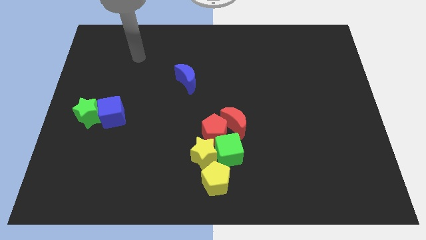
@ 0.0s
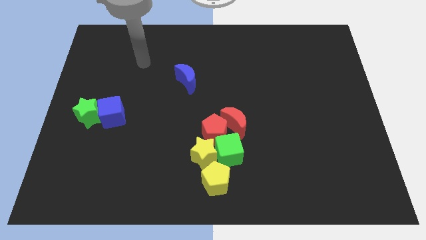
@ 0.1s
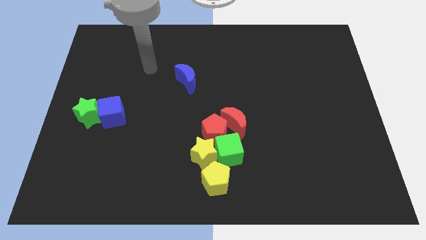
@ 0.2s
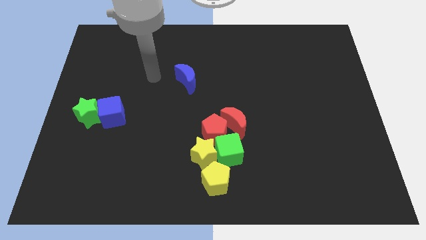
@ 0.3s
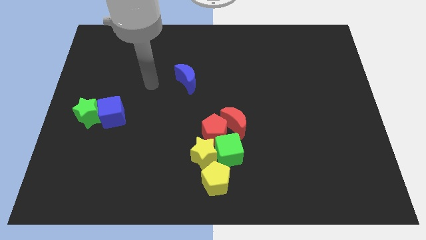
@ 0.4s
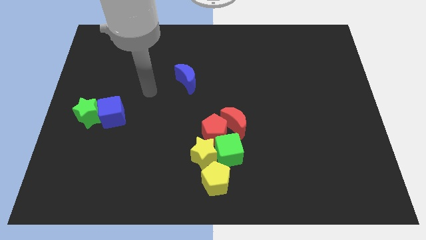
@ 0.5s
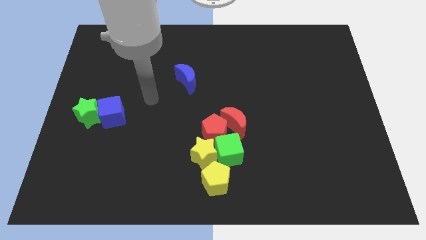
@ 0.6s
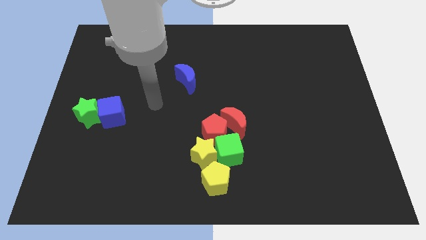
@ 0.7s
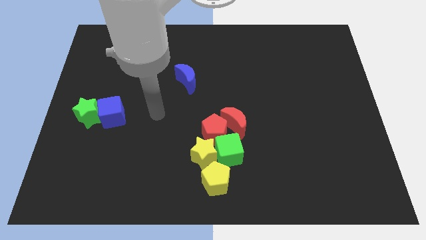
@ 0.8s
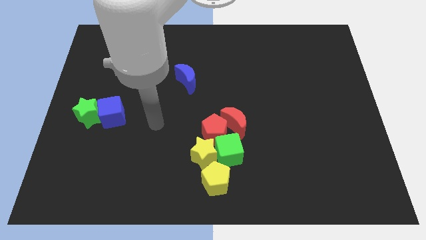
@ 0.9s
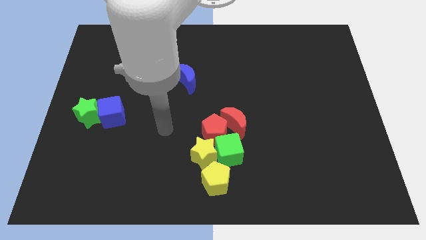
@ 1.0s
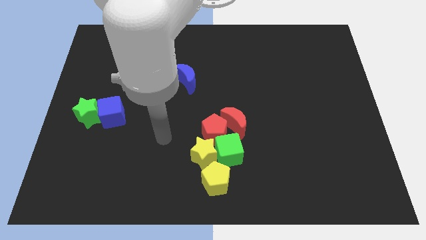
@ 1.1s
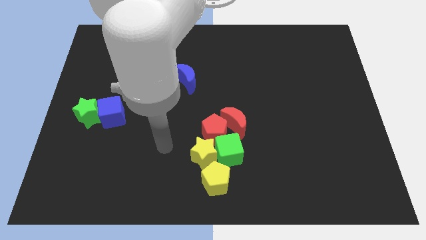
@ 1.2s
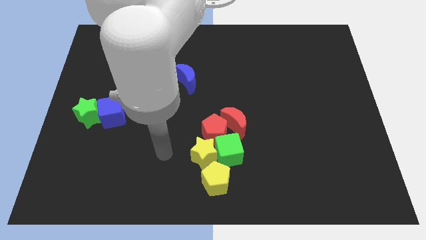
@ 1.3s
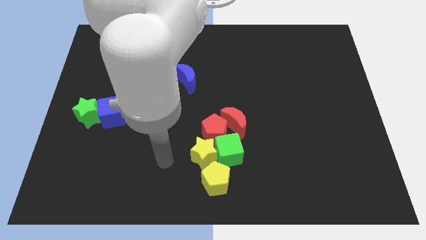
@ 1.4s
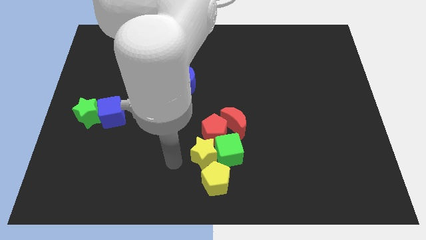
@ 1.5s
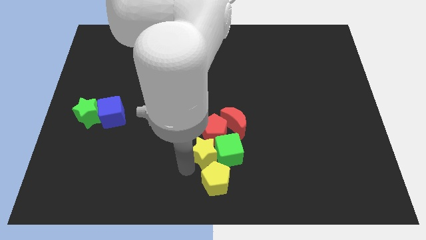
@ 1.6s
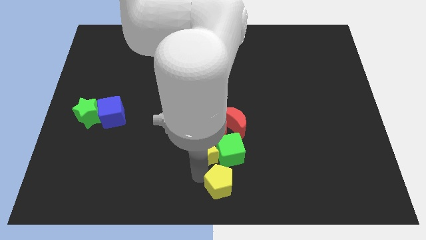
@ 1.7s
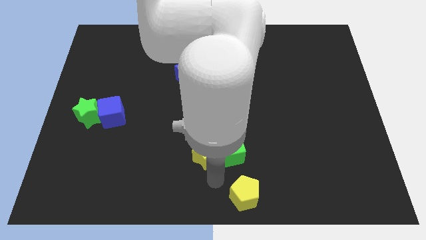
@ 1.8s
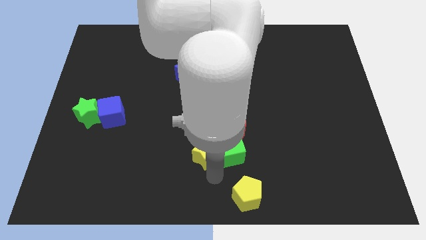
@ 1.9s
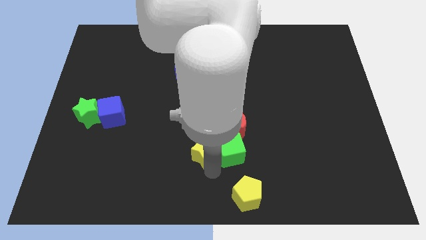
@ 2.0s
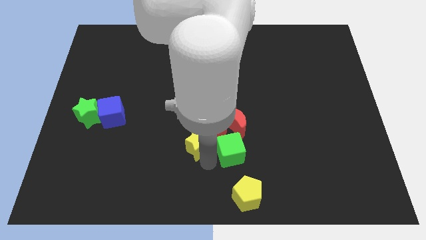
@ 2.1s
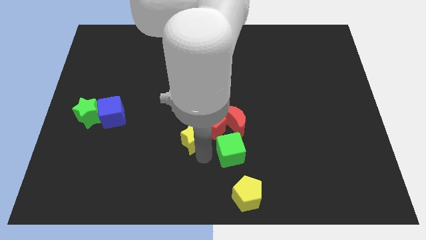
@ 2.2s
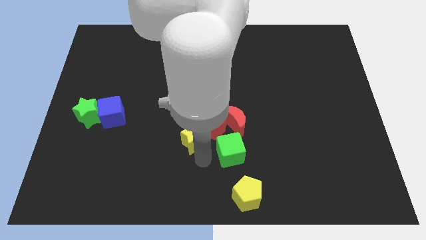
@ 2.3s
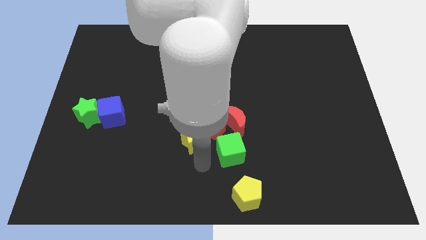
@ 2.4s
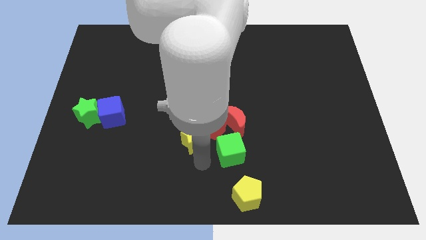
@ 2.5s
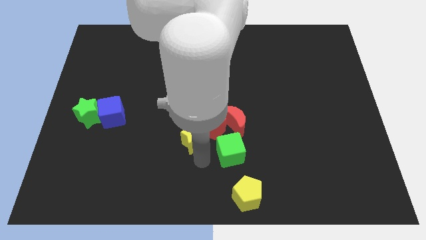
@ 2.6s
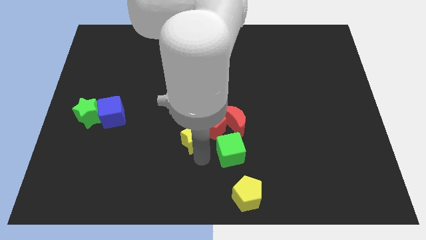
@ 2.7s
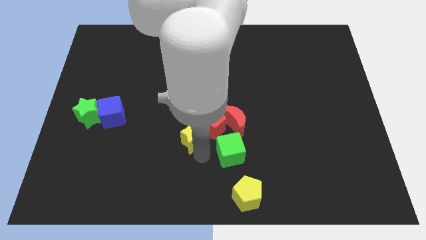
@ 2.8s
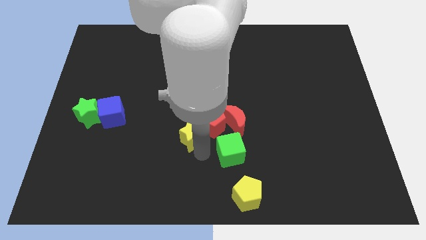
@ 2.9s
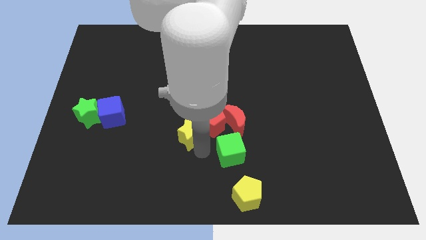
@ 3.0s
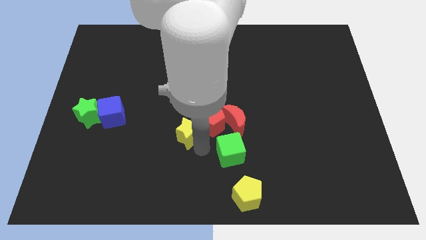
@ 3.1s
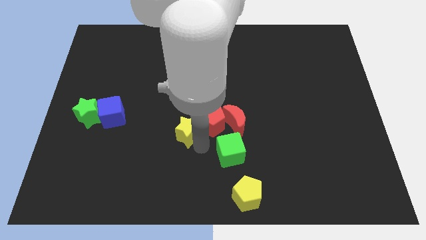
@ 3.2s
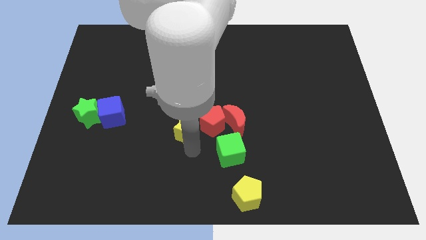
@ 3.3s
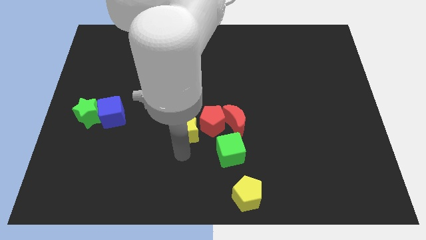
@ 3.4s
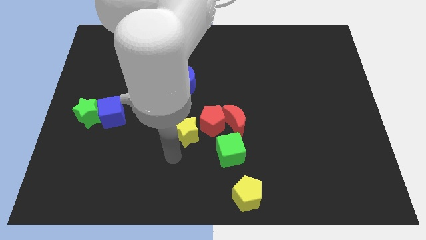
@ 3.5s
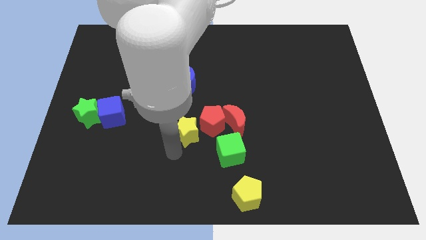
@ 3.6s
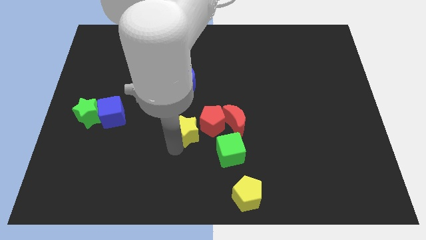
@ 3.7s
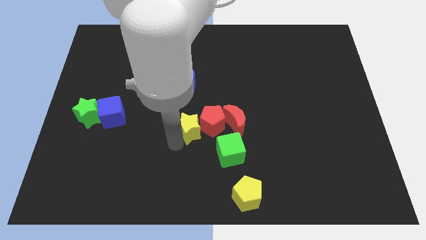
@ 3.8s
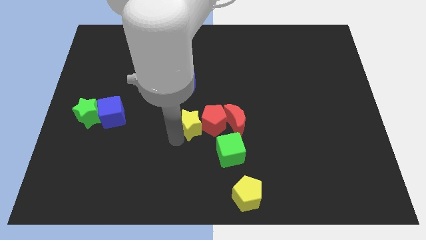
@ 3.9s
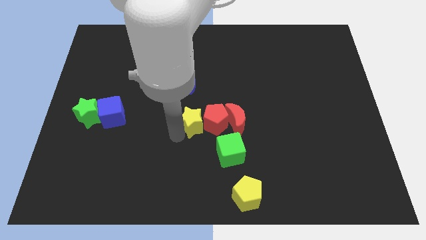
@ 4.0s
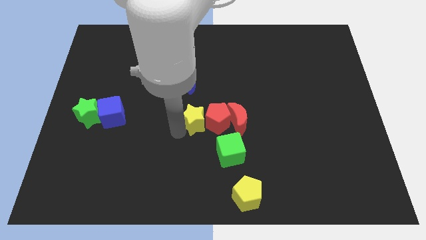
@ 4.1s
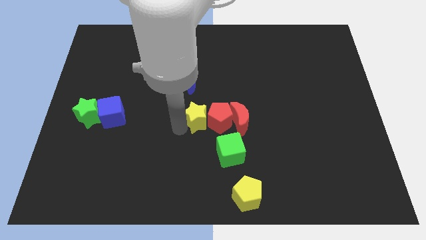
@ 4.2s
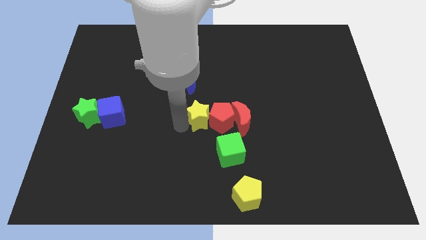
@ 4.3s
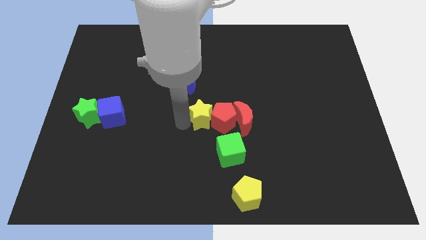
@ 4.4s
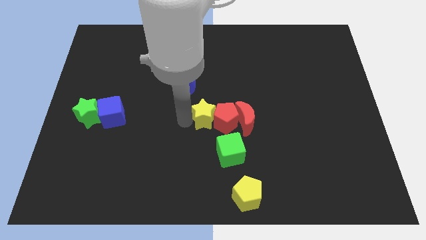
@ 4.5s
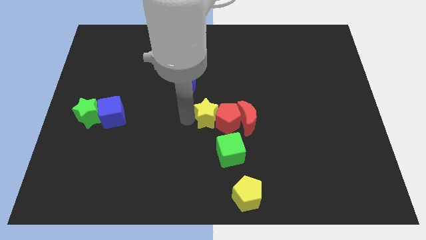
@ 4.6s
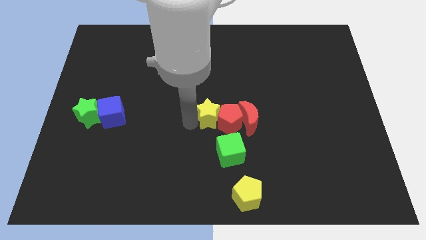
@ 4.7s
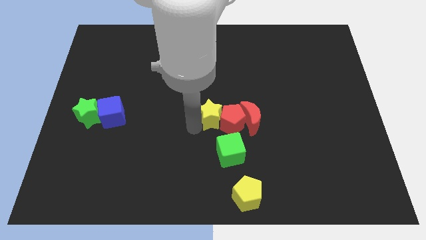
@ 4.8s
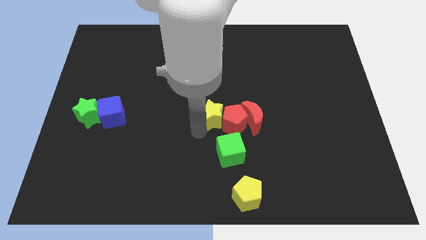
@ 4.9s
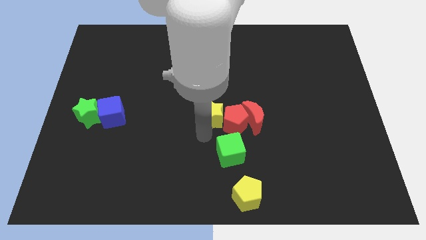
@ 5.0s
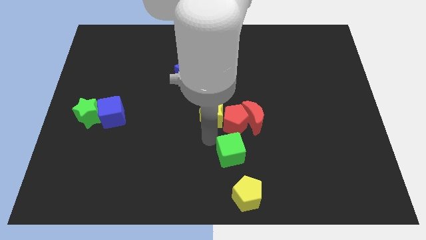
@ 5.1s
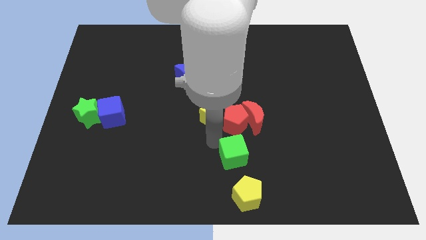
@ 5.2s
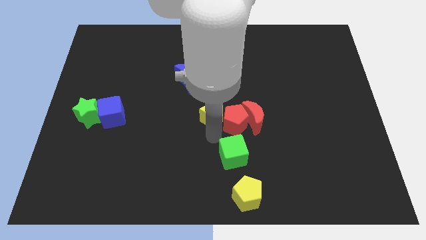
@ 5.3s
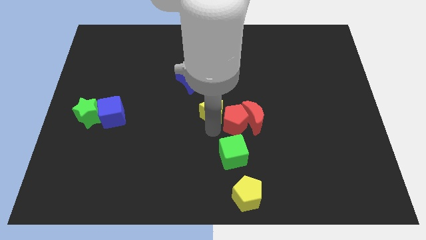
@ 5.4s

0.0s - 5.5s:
push the yellow star to the bottom right of the blue moon

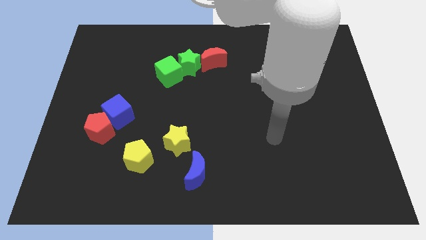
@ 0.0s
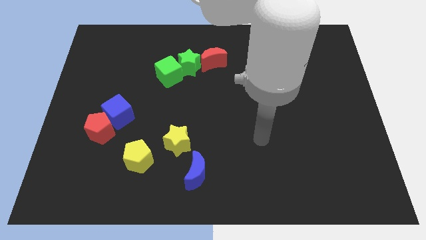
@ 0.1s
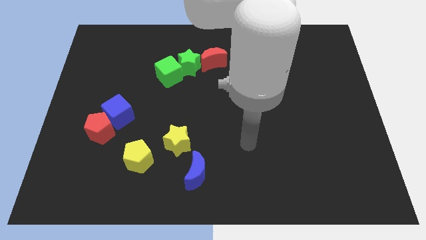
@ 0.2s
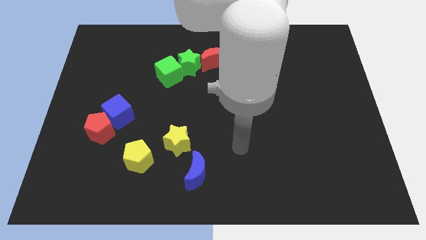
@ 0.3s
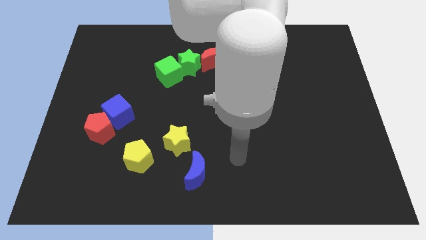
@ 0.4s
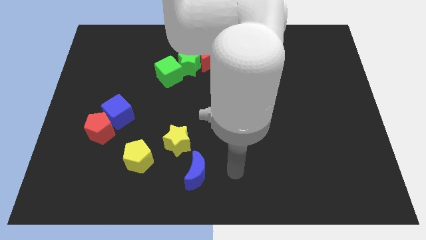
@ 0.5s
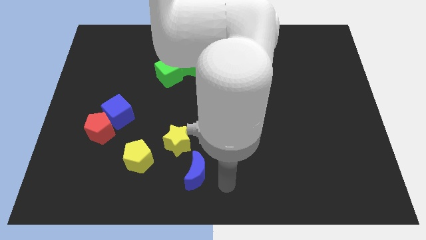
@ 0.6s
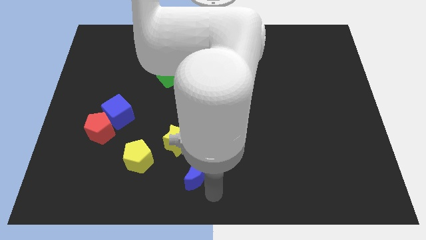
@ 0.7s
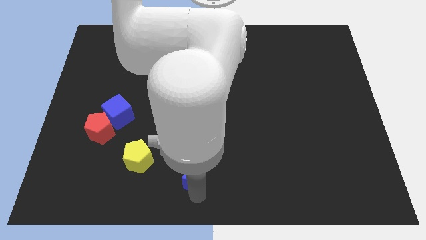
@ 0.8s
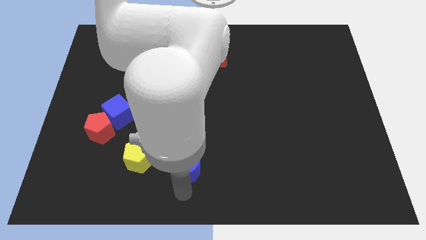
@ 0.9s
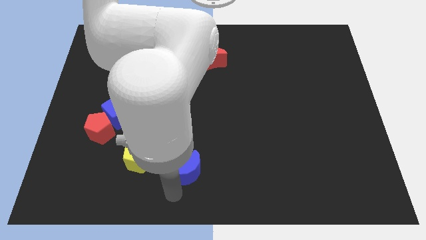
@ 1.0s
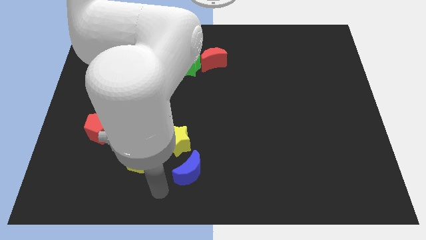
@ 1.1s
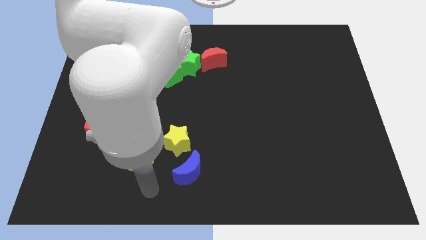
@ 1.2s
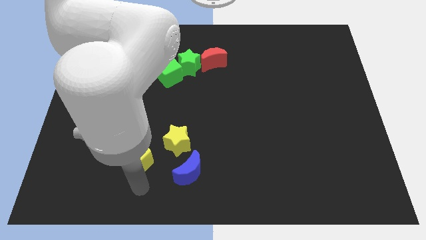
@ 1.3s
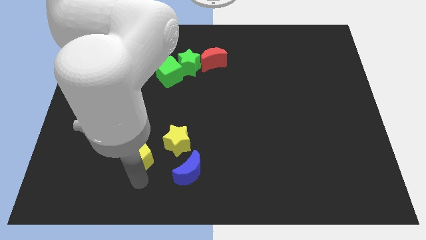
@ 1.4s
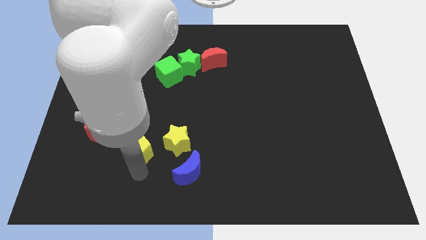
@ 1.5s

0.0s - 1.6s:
put the yellow pentagon to the bottom right of the blue cube

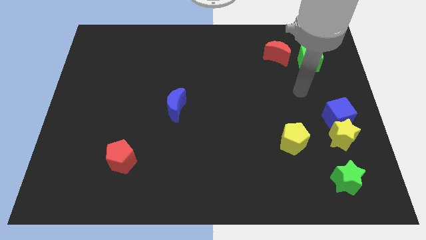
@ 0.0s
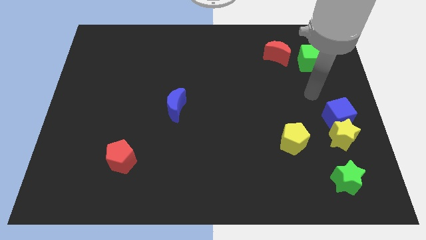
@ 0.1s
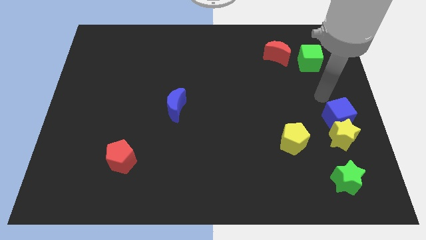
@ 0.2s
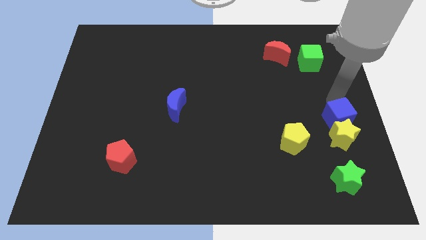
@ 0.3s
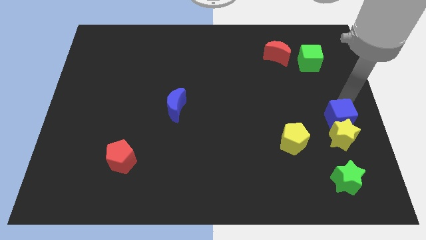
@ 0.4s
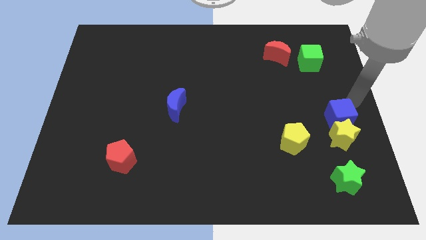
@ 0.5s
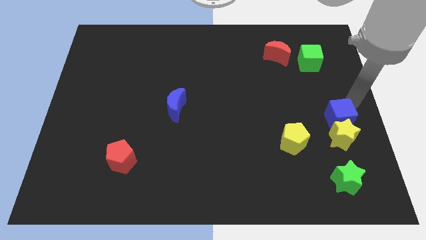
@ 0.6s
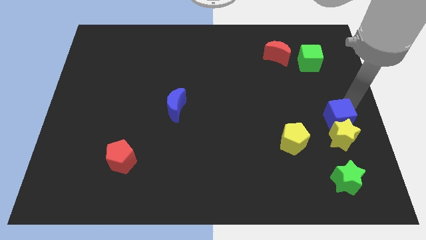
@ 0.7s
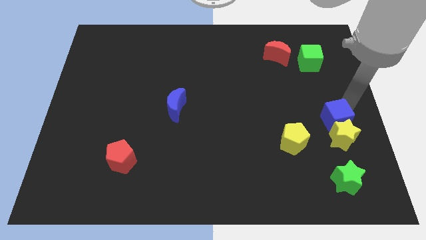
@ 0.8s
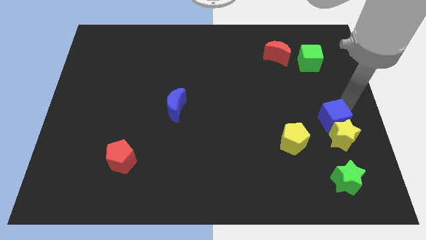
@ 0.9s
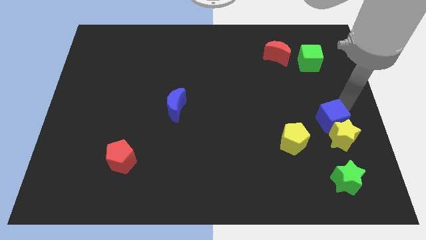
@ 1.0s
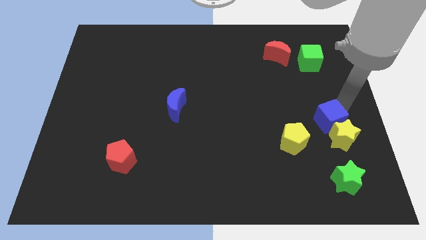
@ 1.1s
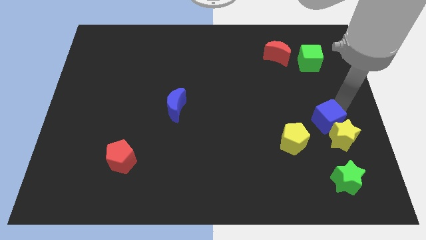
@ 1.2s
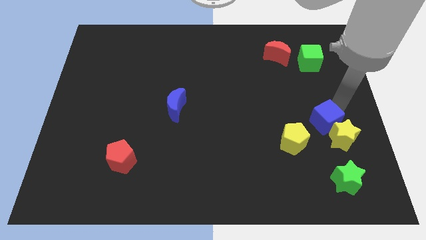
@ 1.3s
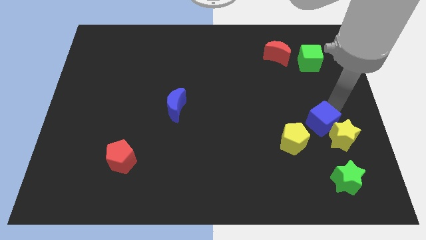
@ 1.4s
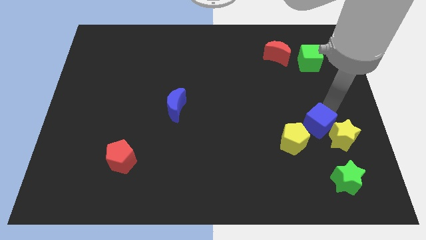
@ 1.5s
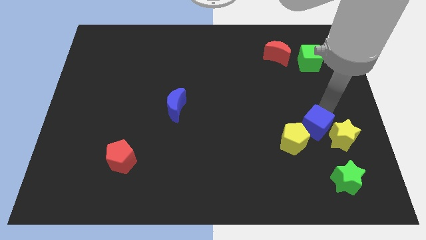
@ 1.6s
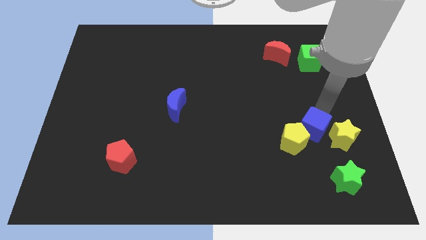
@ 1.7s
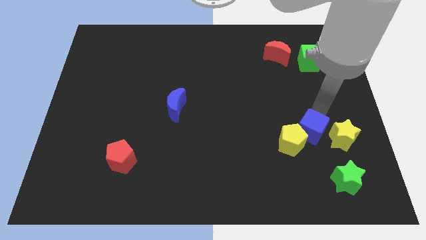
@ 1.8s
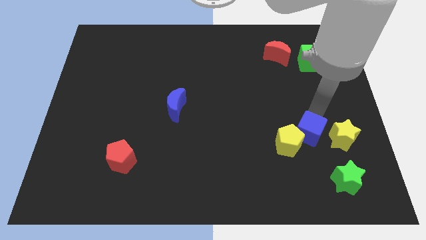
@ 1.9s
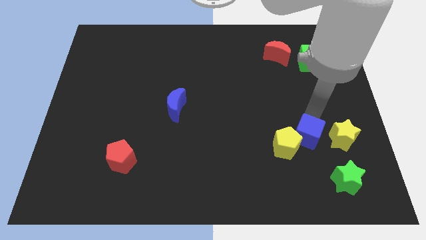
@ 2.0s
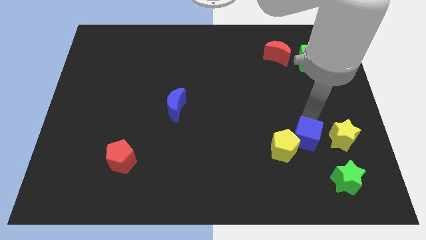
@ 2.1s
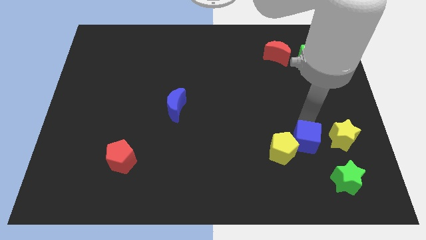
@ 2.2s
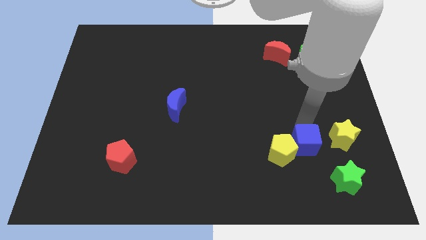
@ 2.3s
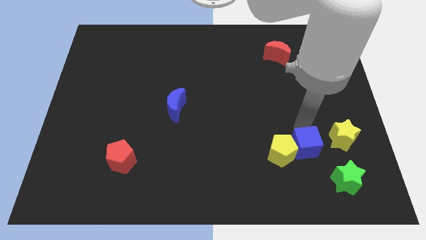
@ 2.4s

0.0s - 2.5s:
slide the blue cube diagonally down and to the right of the yellow pentagon
